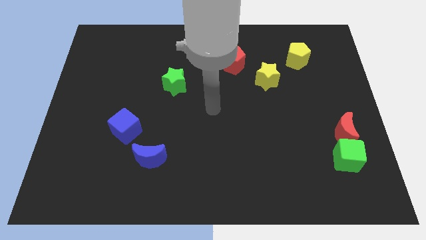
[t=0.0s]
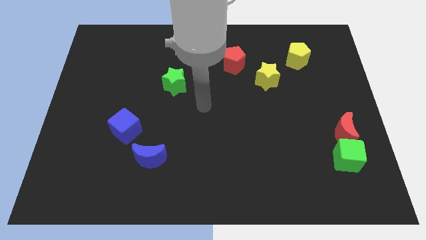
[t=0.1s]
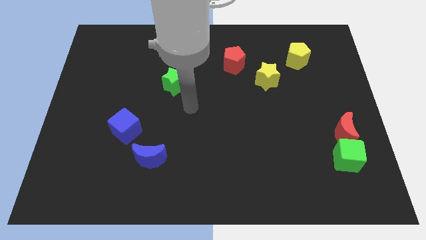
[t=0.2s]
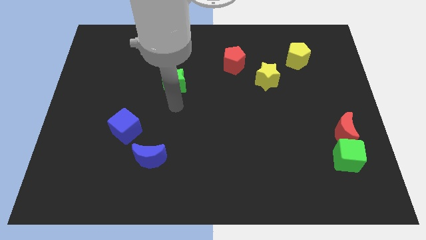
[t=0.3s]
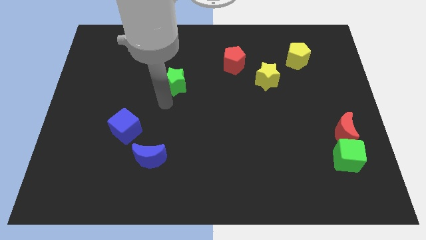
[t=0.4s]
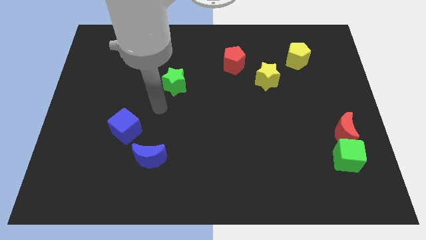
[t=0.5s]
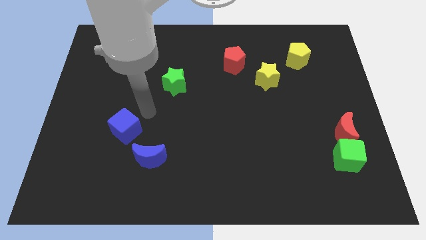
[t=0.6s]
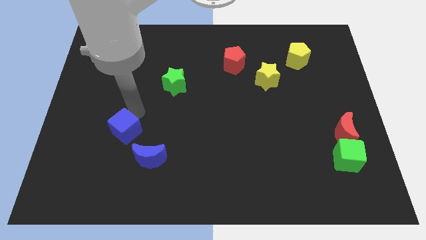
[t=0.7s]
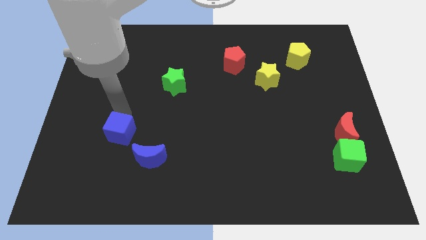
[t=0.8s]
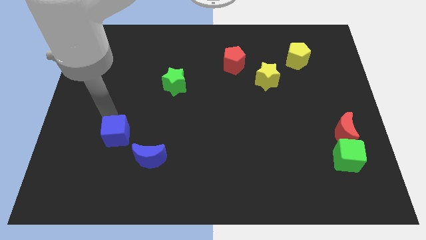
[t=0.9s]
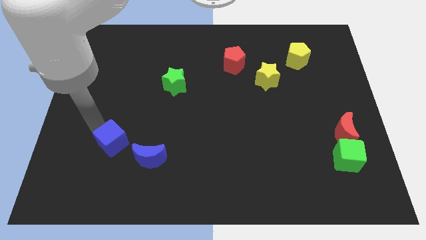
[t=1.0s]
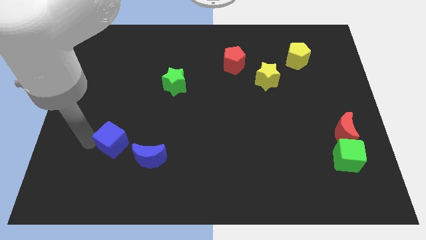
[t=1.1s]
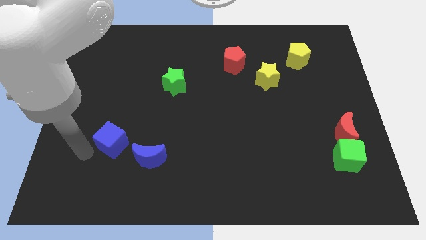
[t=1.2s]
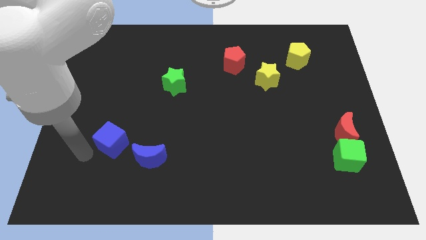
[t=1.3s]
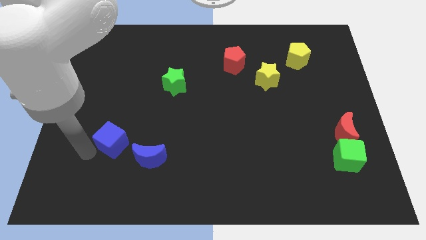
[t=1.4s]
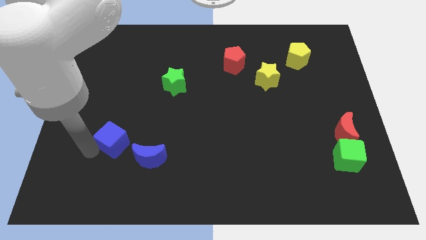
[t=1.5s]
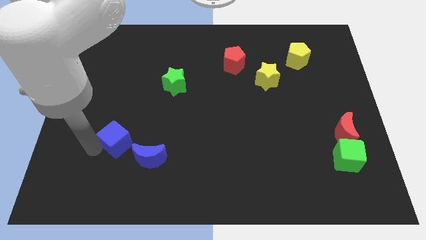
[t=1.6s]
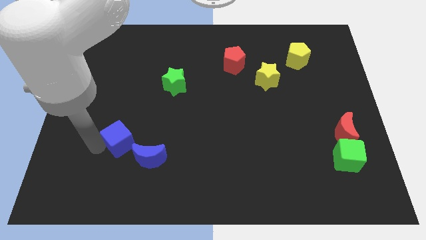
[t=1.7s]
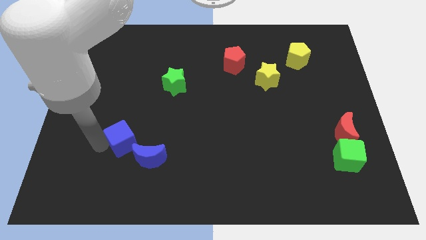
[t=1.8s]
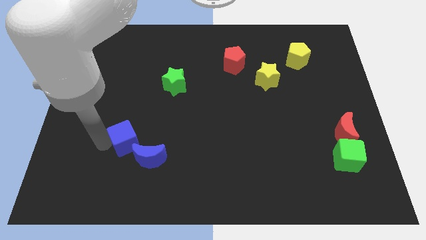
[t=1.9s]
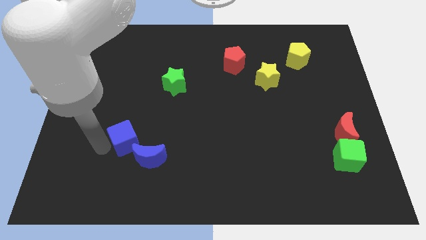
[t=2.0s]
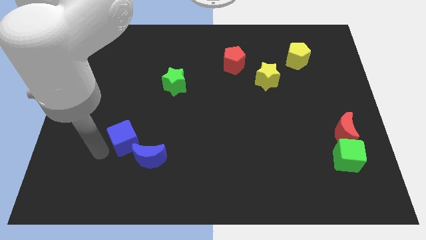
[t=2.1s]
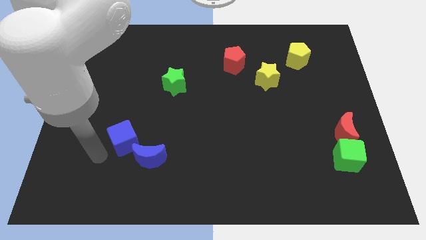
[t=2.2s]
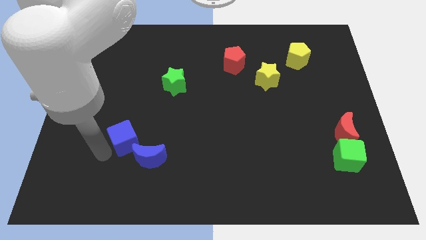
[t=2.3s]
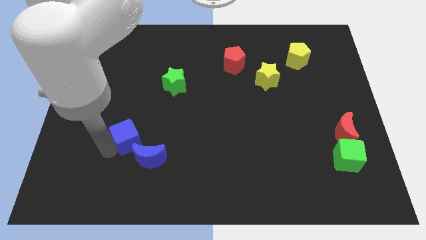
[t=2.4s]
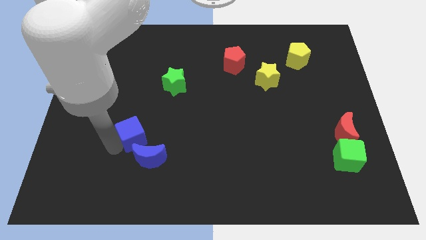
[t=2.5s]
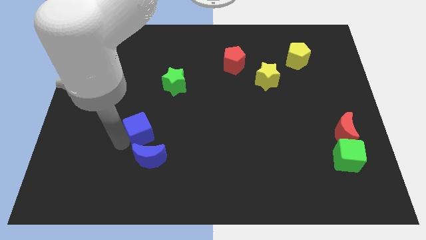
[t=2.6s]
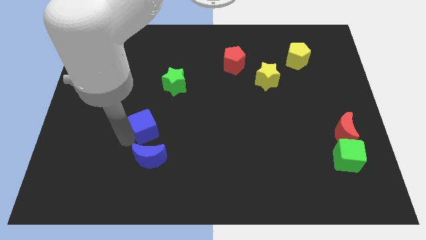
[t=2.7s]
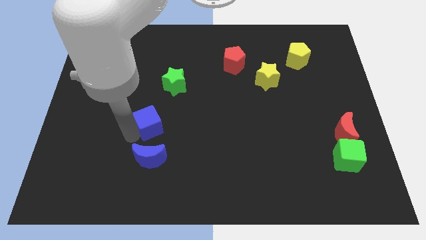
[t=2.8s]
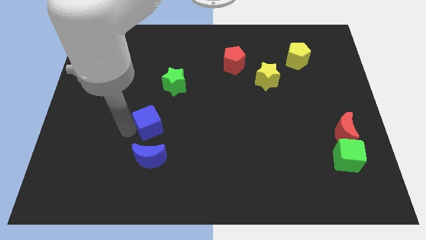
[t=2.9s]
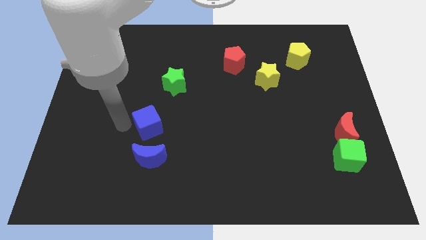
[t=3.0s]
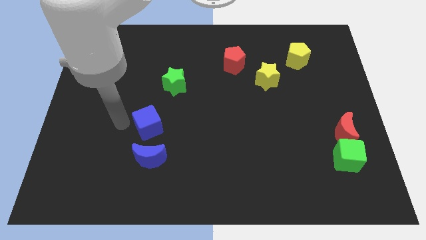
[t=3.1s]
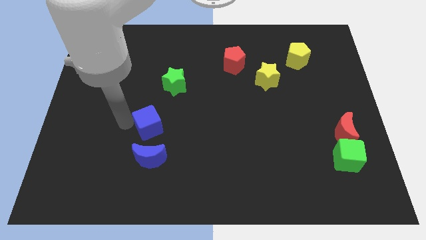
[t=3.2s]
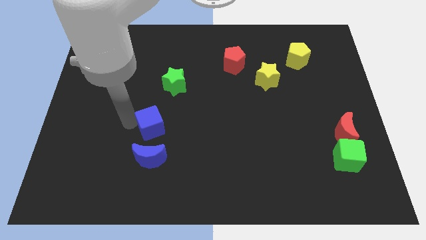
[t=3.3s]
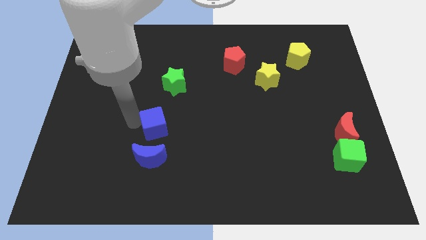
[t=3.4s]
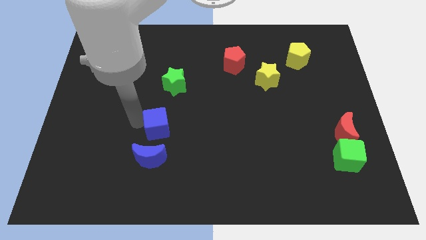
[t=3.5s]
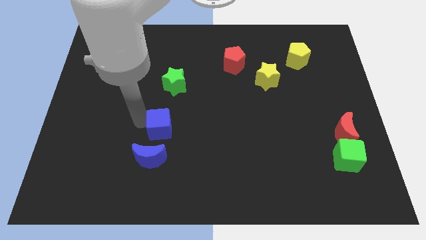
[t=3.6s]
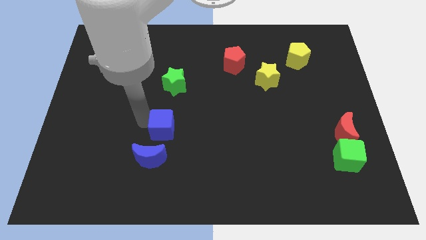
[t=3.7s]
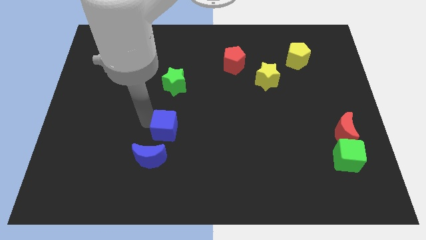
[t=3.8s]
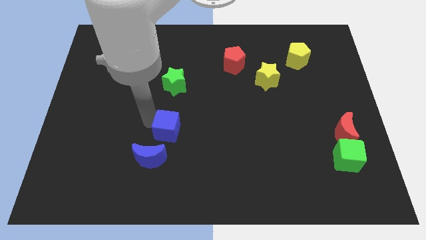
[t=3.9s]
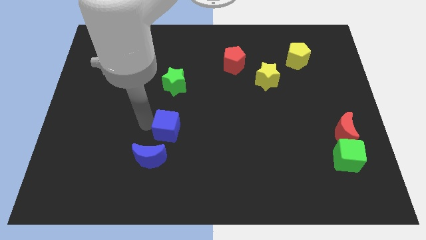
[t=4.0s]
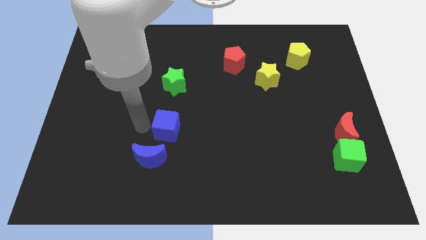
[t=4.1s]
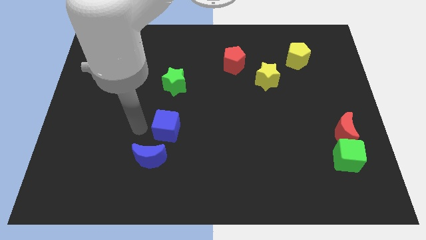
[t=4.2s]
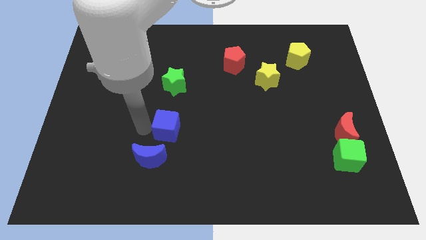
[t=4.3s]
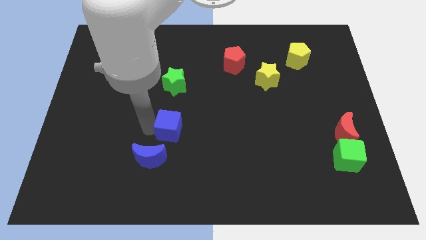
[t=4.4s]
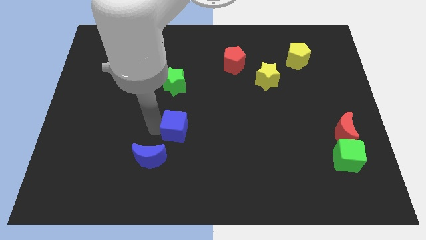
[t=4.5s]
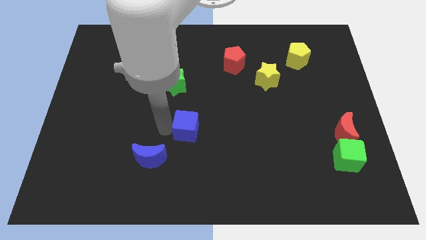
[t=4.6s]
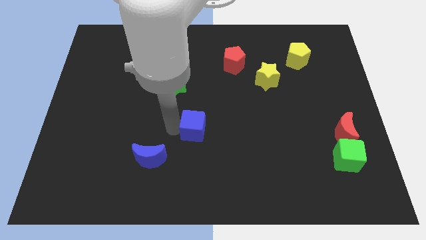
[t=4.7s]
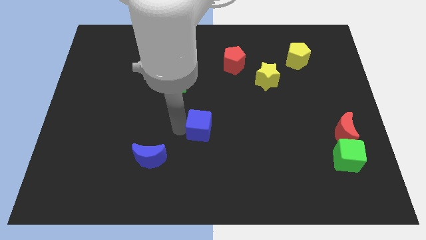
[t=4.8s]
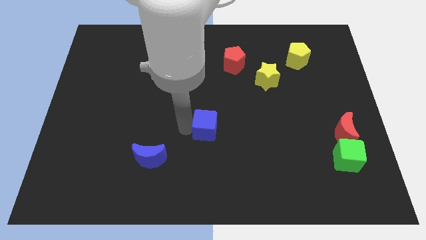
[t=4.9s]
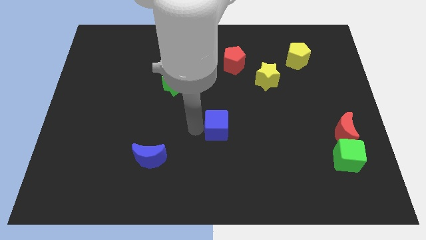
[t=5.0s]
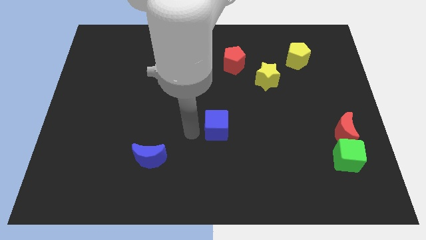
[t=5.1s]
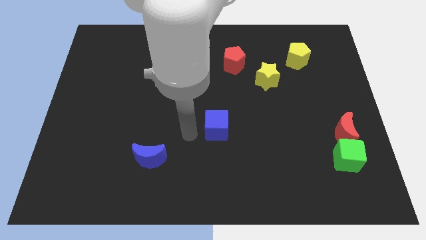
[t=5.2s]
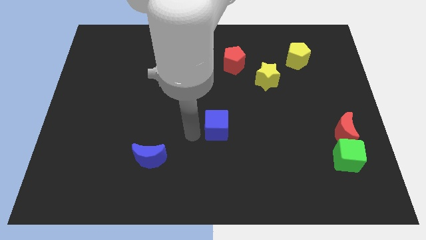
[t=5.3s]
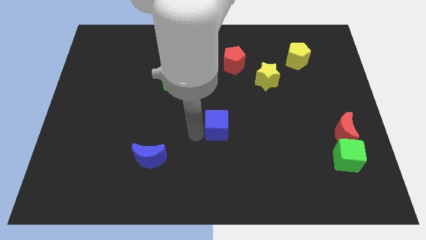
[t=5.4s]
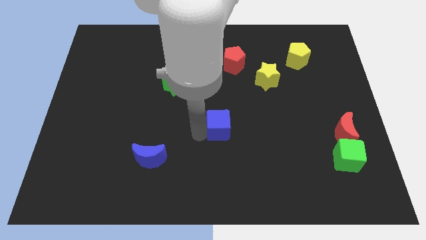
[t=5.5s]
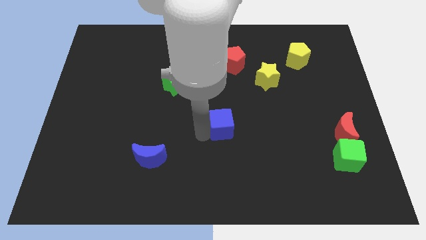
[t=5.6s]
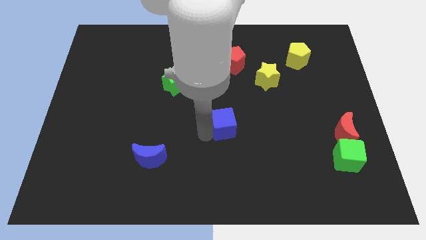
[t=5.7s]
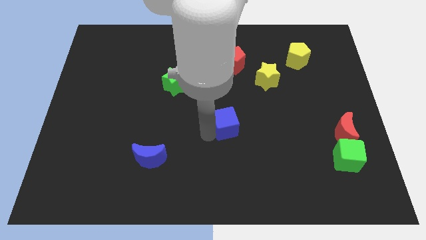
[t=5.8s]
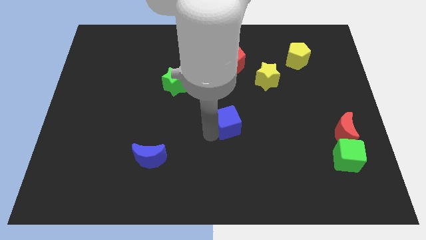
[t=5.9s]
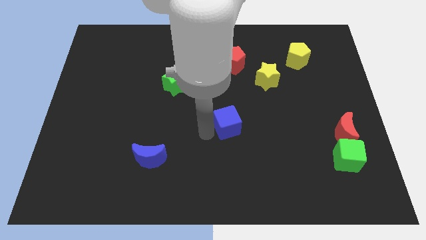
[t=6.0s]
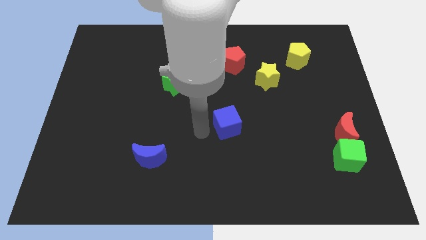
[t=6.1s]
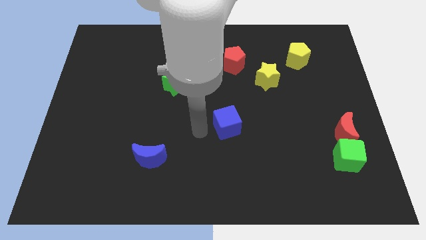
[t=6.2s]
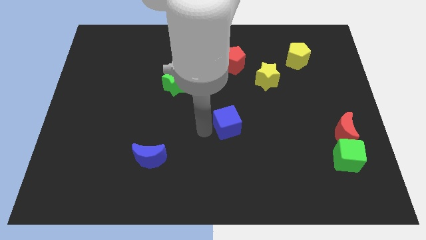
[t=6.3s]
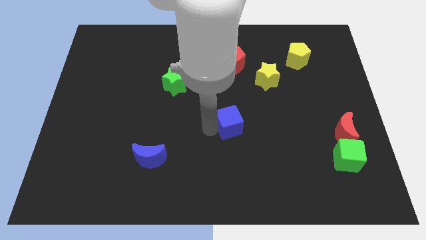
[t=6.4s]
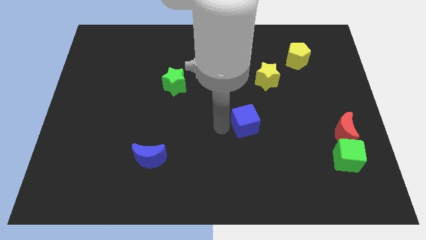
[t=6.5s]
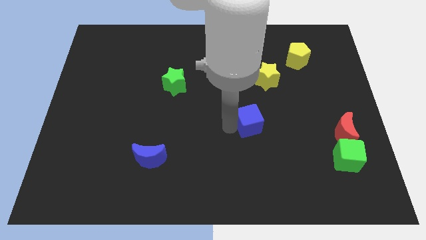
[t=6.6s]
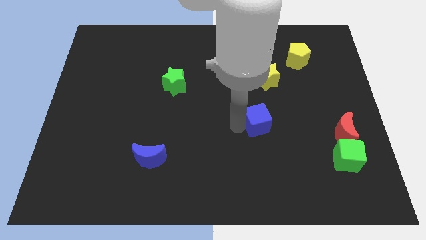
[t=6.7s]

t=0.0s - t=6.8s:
push the blue cube below the yellow star
